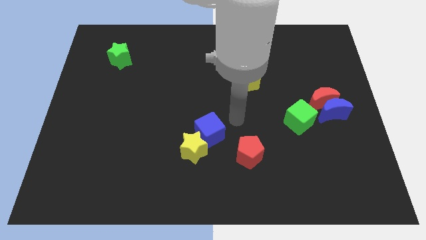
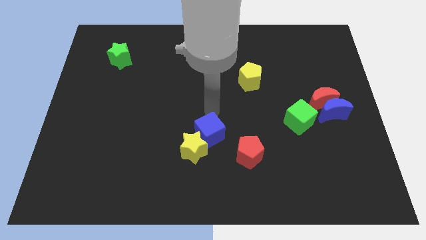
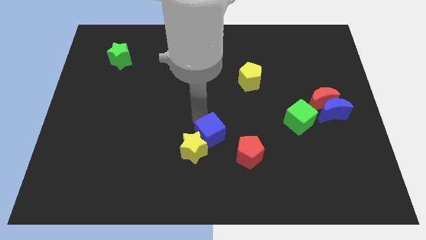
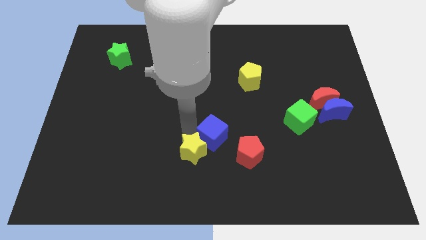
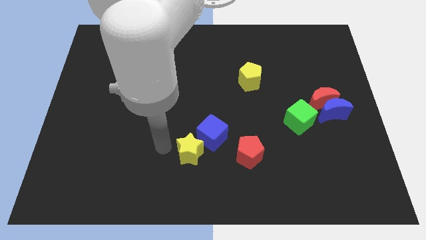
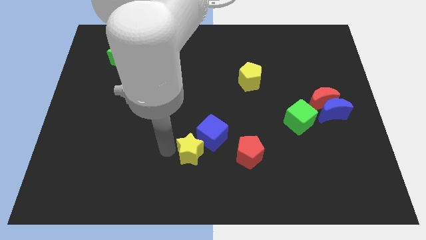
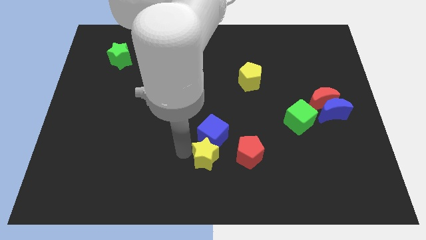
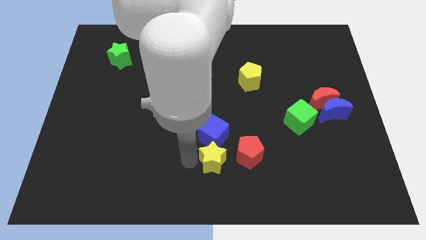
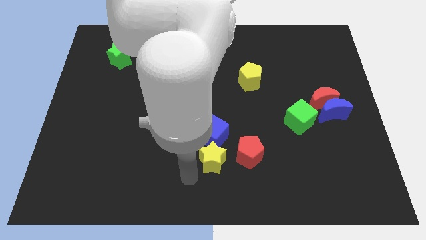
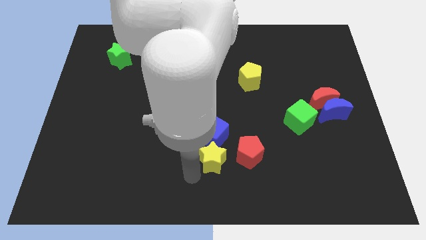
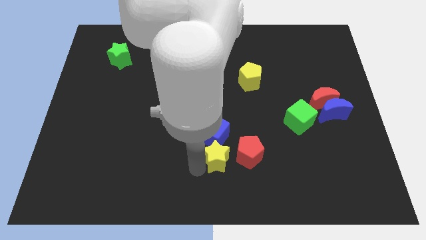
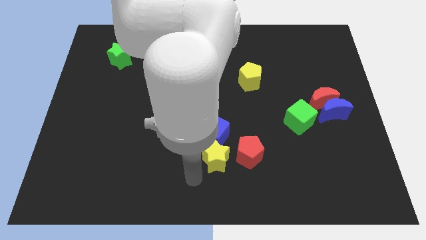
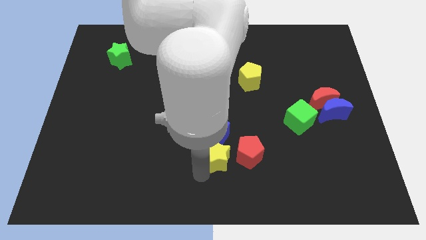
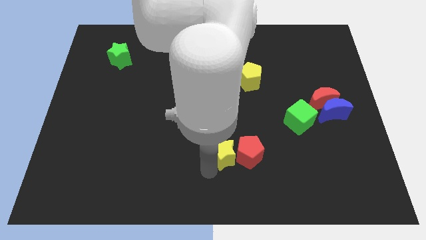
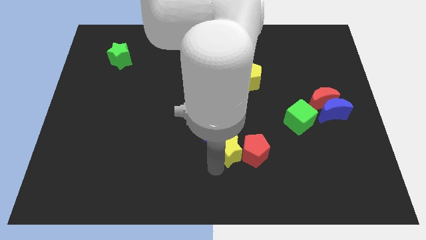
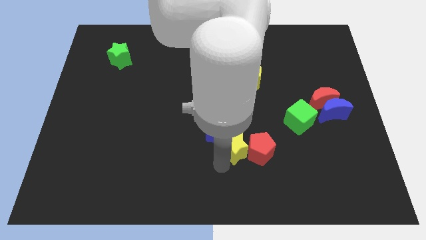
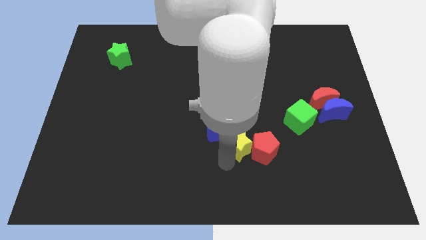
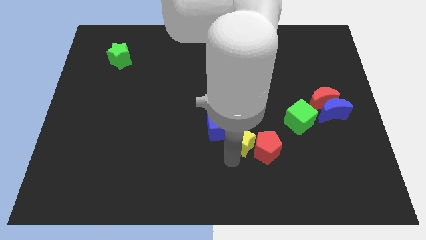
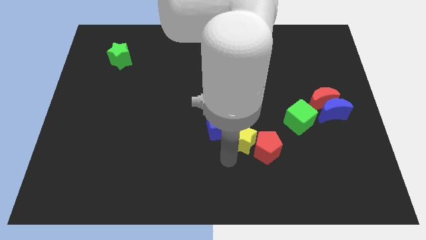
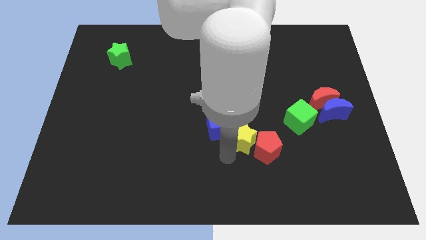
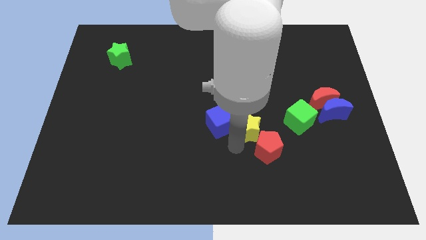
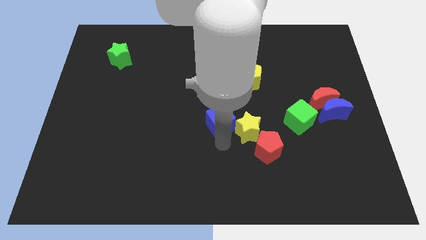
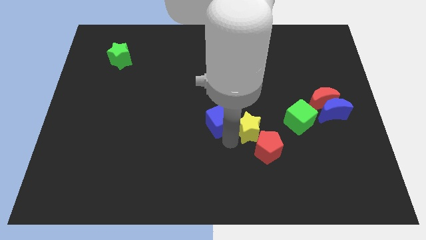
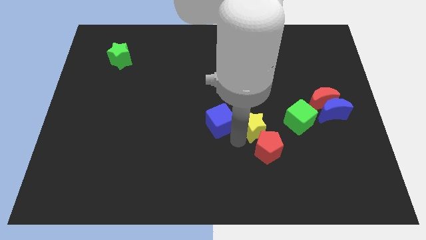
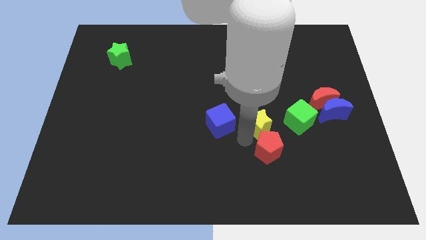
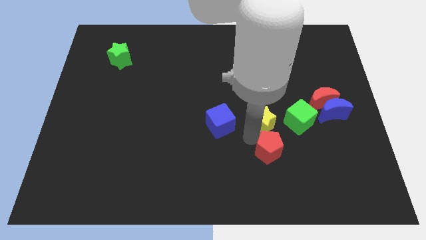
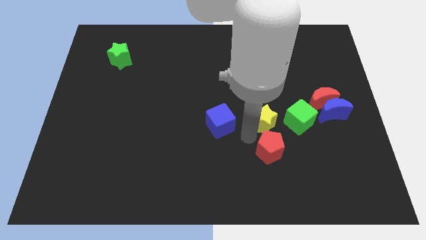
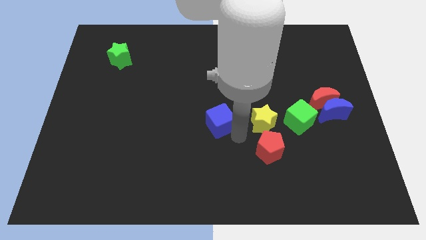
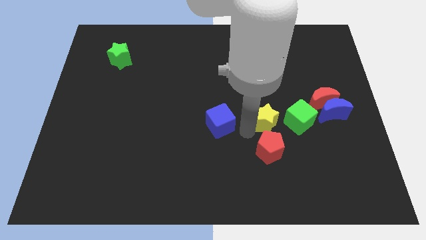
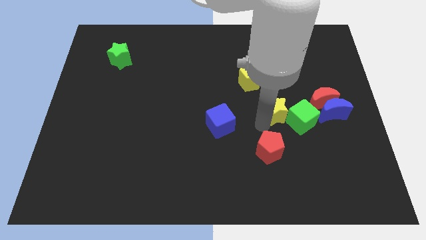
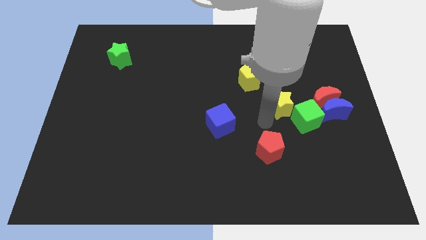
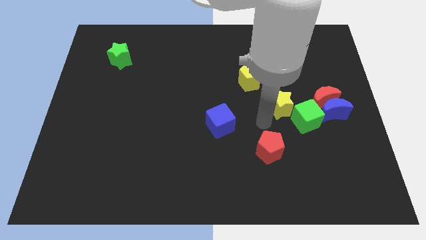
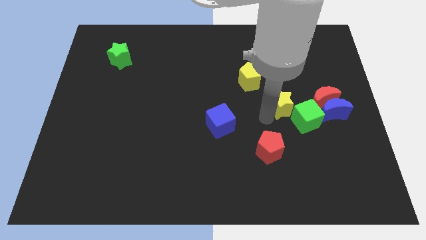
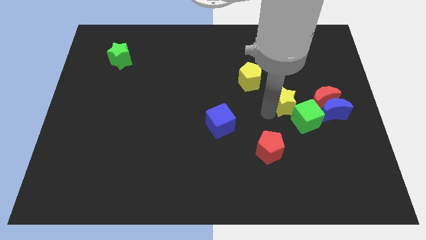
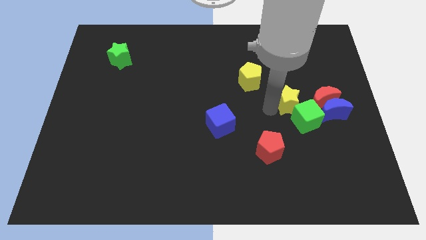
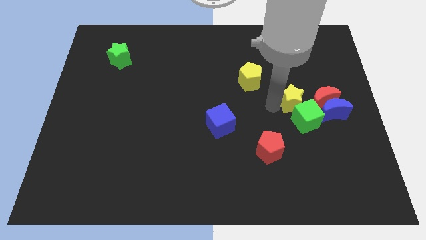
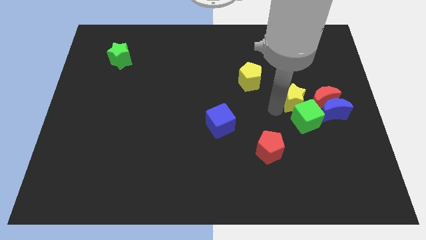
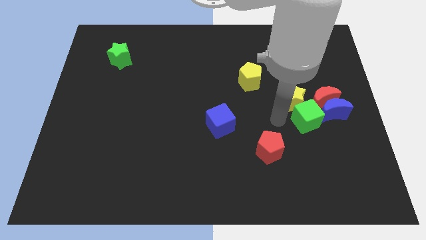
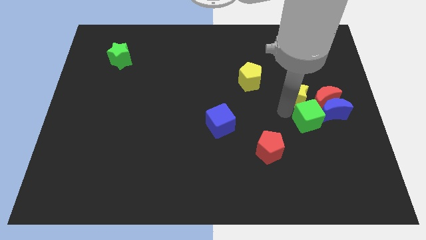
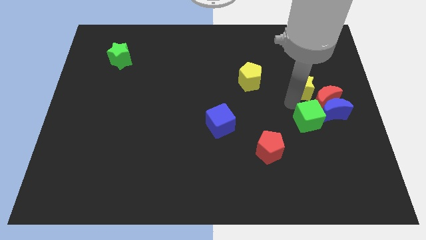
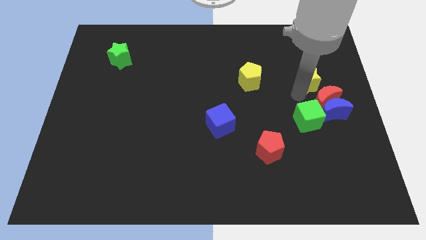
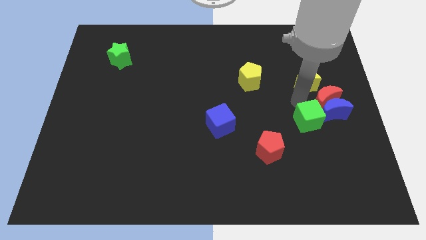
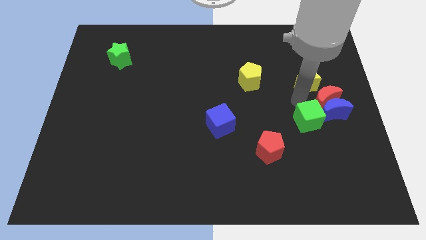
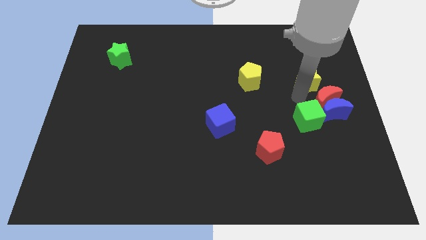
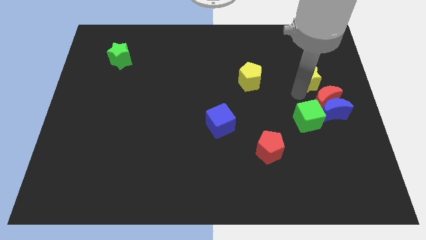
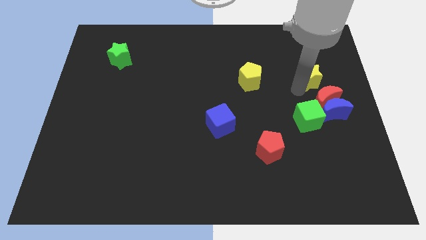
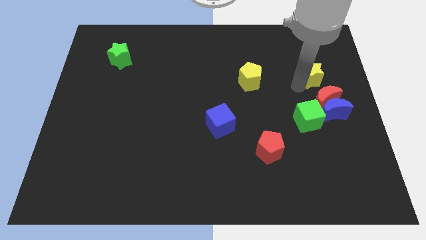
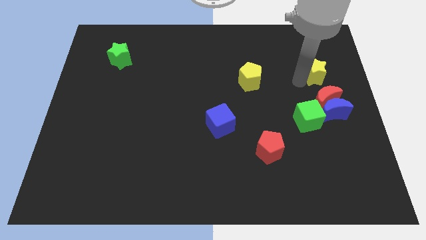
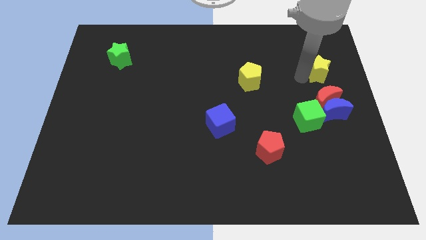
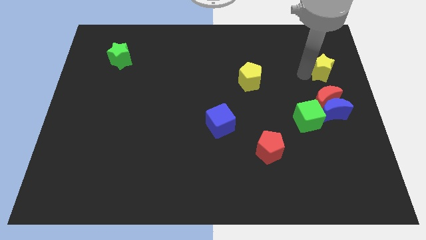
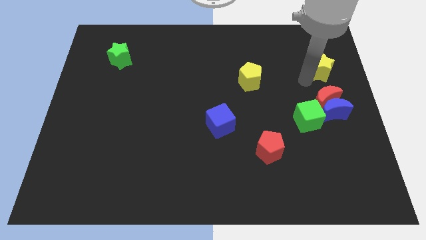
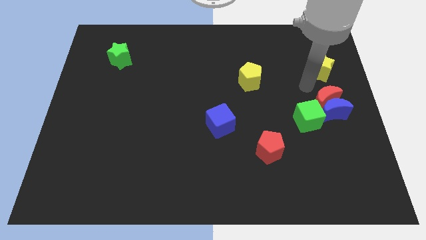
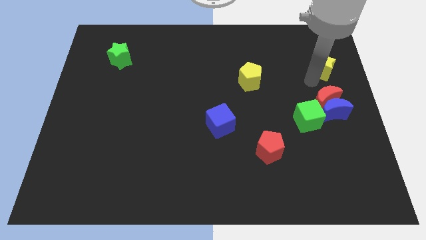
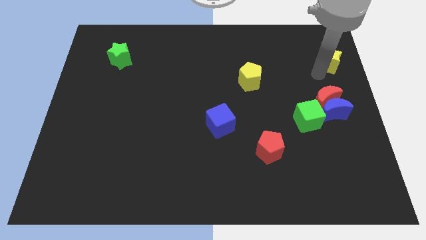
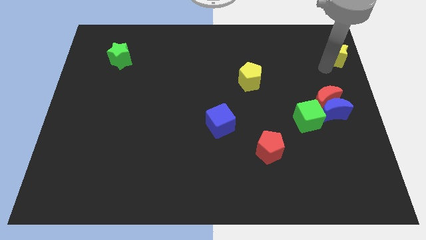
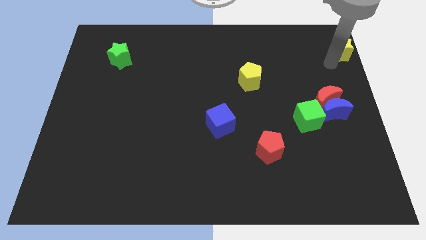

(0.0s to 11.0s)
slide the yellow star to the top right

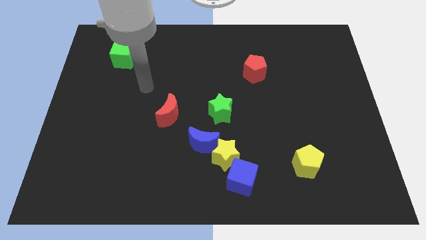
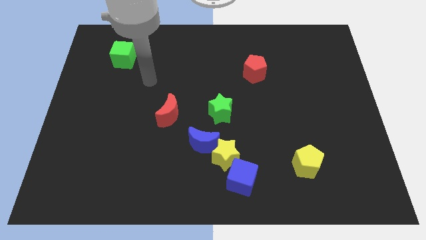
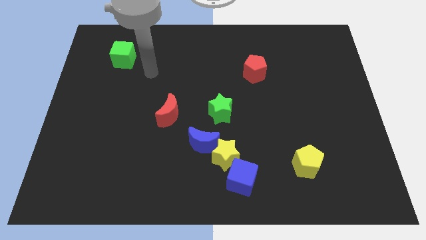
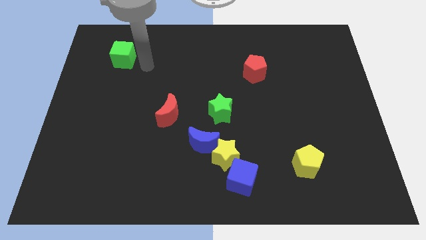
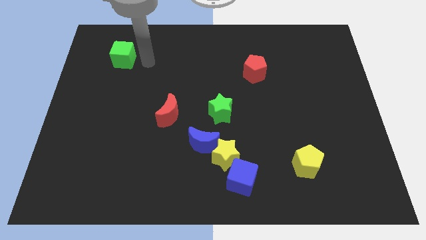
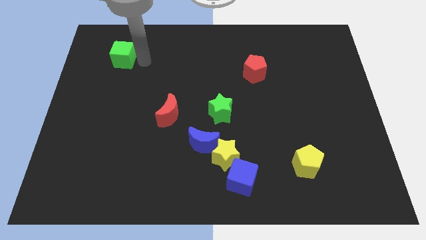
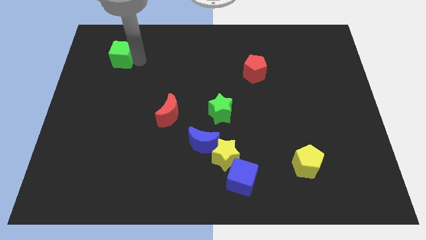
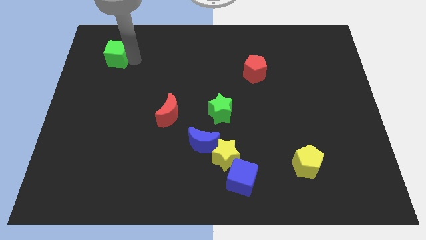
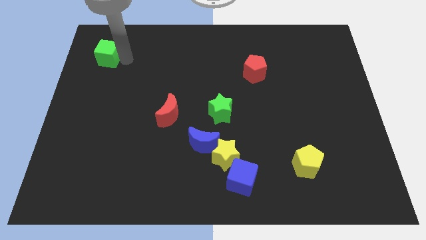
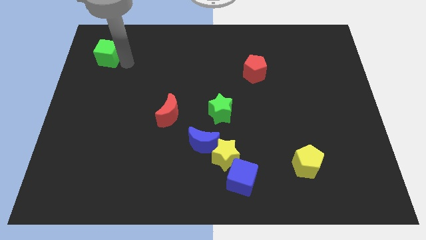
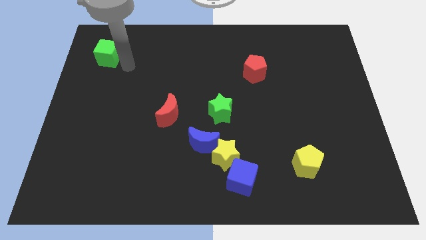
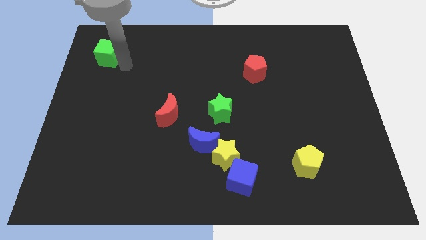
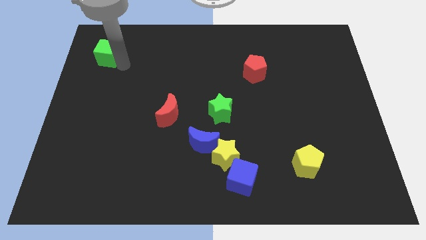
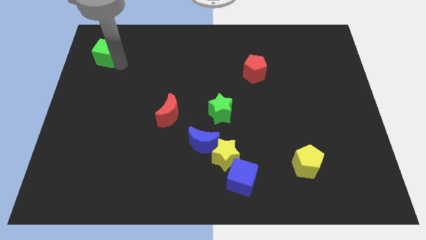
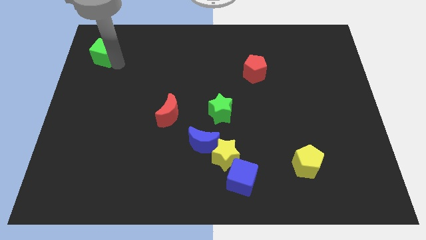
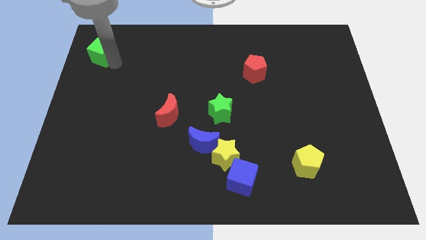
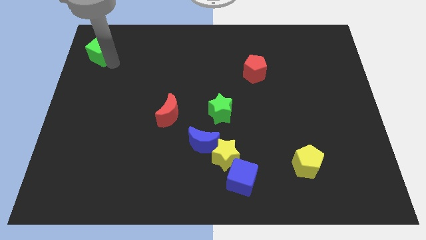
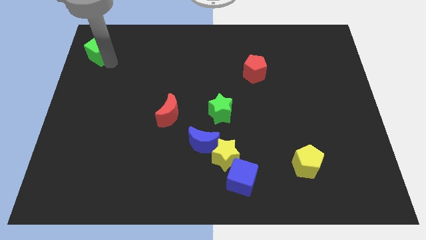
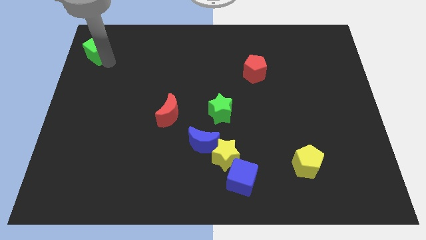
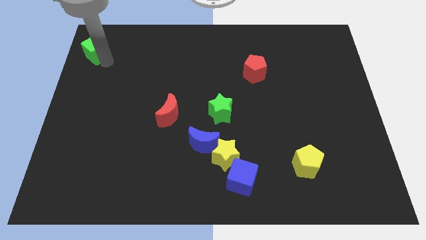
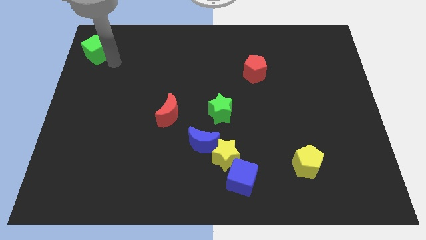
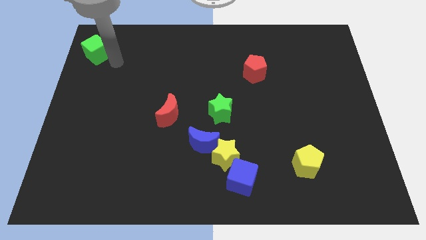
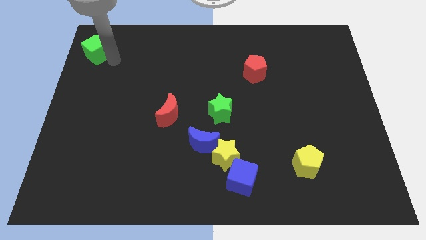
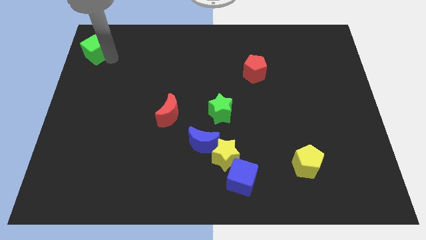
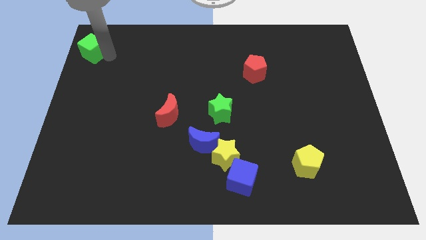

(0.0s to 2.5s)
push the green cube to the top left
